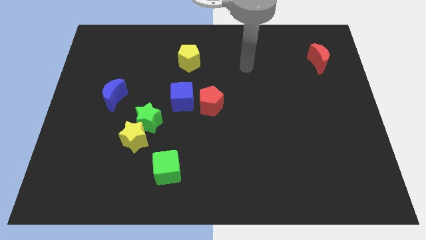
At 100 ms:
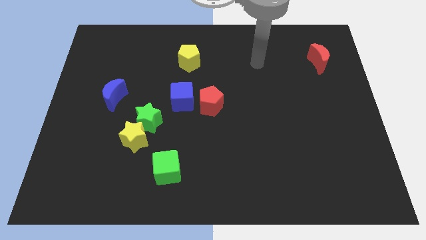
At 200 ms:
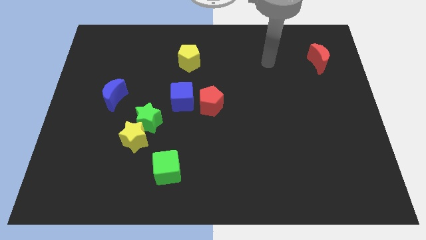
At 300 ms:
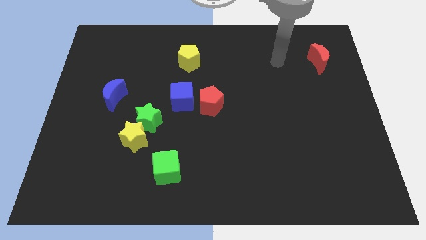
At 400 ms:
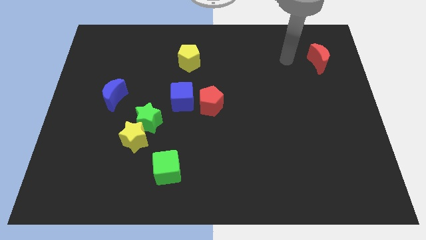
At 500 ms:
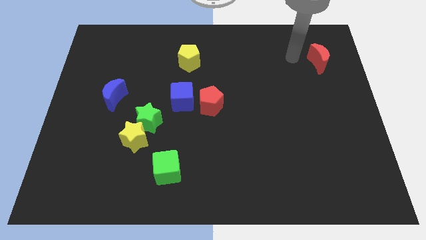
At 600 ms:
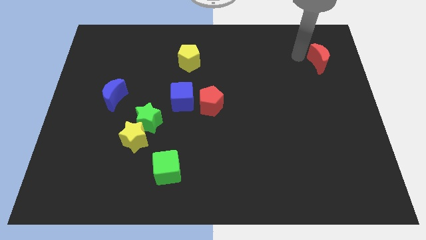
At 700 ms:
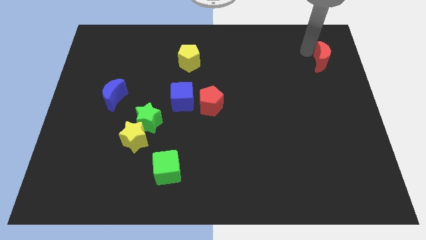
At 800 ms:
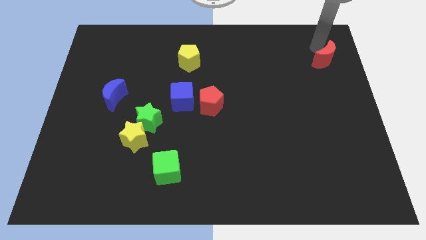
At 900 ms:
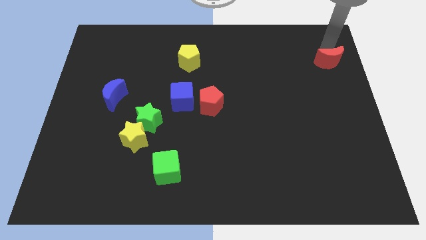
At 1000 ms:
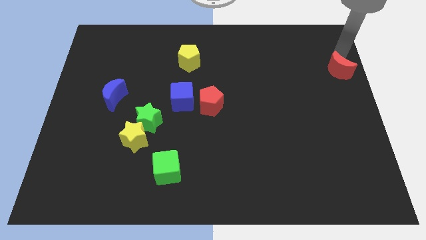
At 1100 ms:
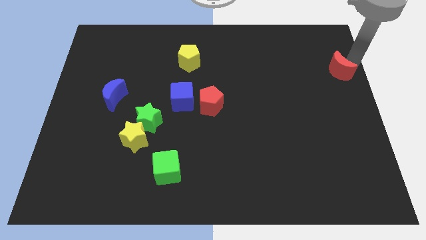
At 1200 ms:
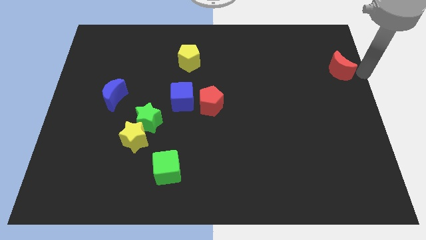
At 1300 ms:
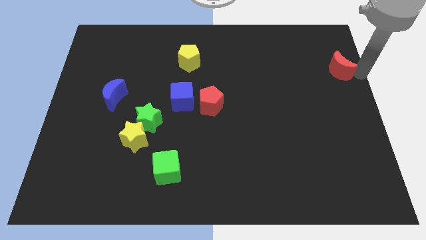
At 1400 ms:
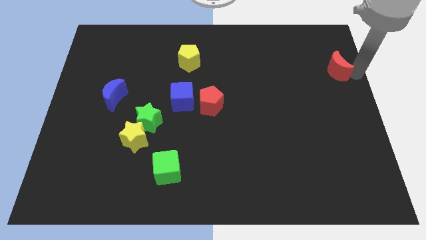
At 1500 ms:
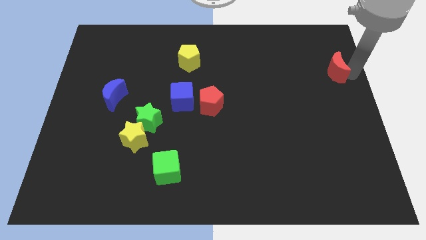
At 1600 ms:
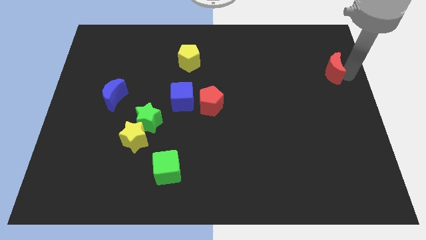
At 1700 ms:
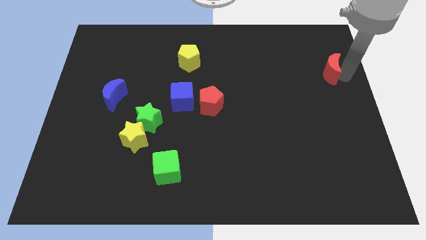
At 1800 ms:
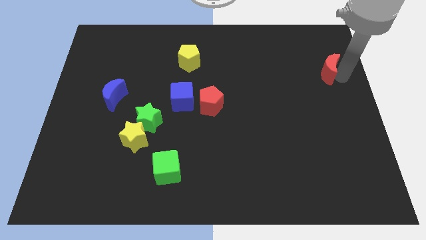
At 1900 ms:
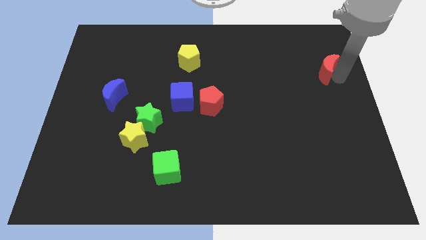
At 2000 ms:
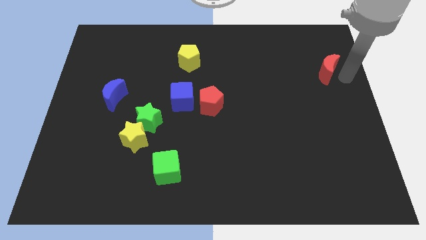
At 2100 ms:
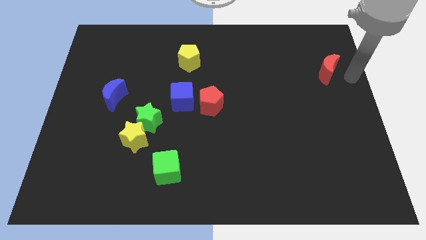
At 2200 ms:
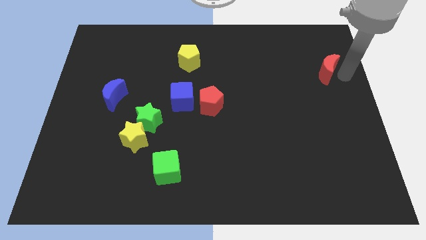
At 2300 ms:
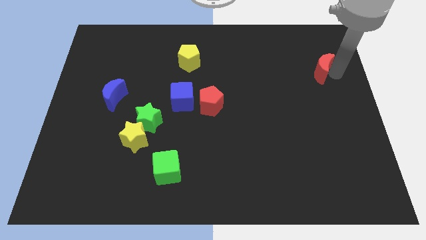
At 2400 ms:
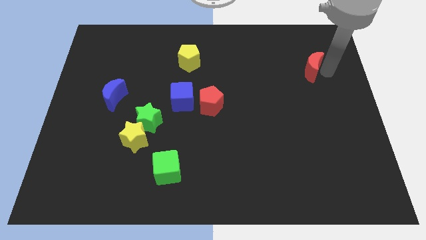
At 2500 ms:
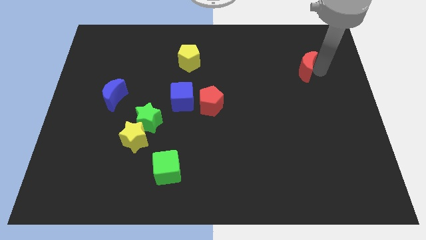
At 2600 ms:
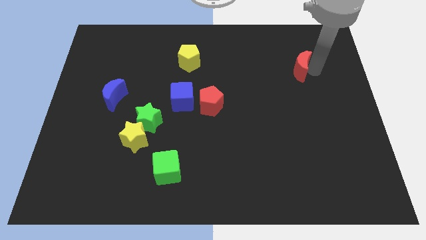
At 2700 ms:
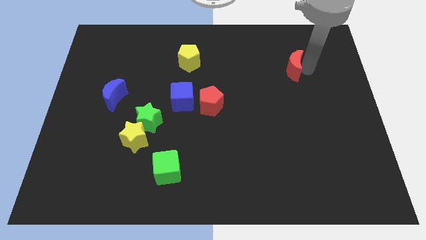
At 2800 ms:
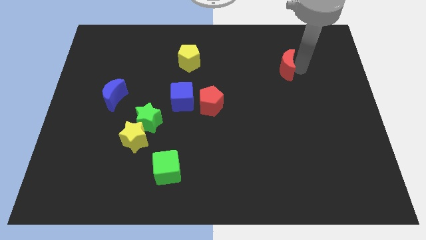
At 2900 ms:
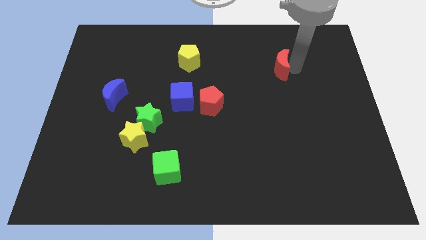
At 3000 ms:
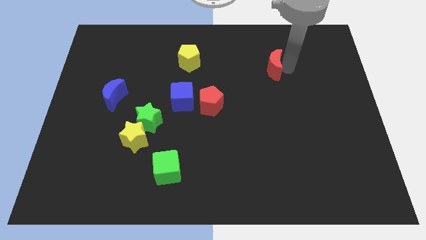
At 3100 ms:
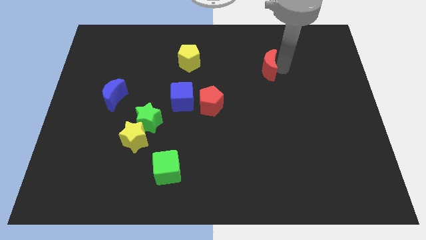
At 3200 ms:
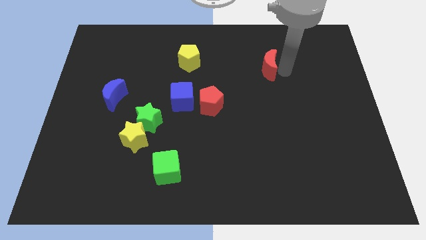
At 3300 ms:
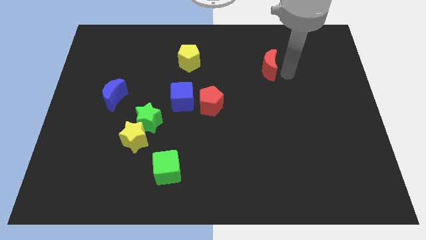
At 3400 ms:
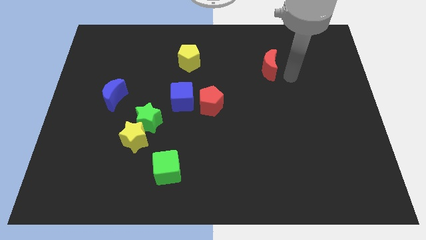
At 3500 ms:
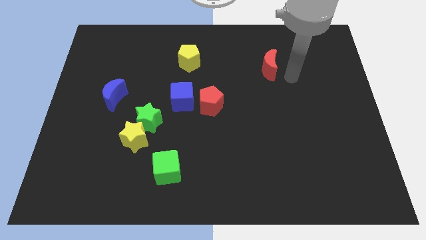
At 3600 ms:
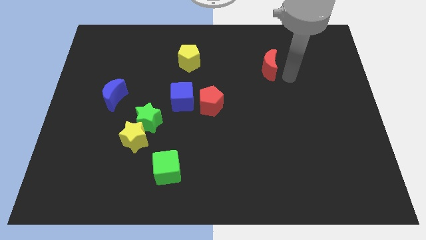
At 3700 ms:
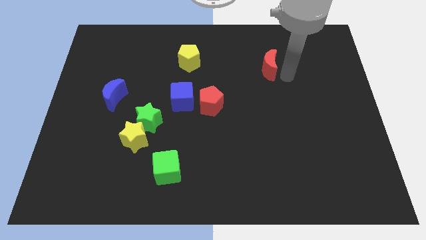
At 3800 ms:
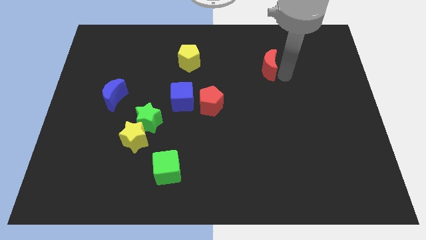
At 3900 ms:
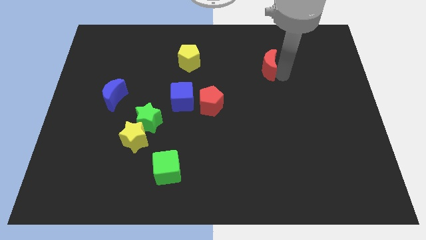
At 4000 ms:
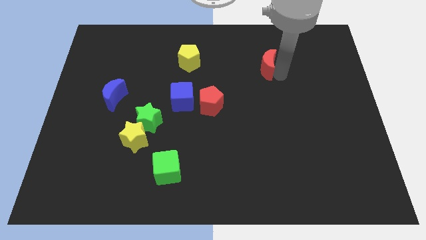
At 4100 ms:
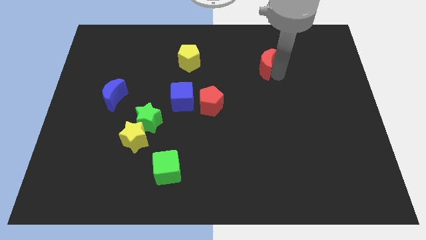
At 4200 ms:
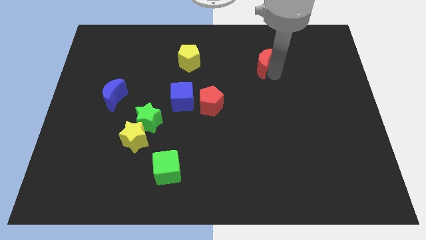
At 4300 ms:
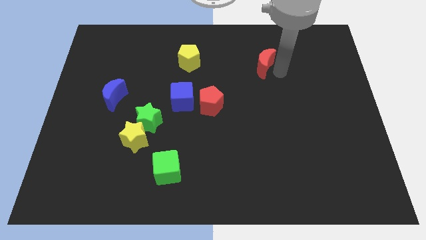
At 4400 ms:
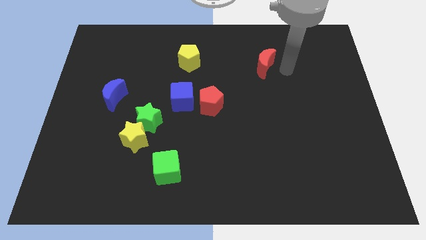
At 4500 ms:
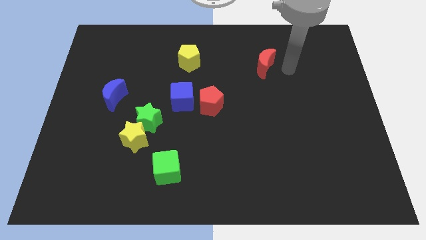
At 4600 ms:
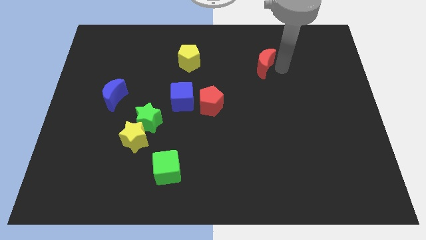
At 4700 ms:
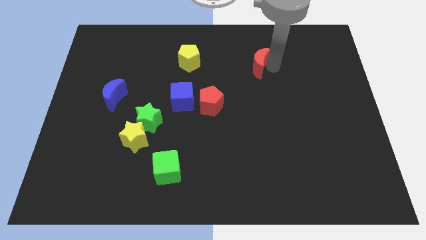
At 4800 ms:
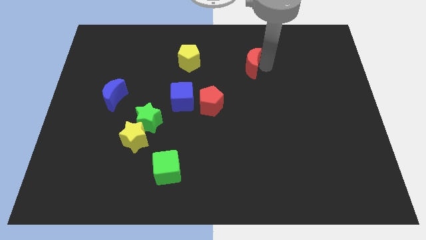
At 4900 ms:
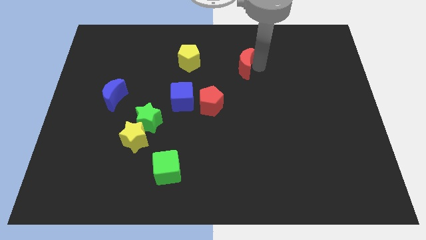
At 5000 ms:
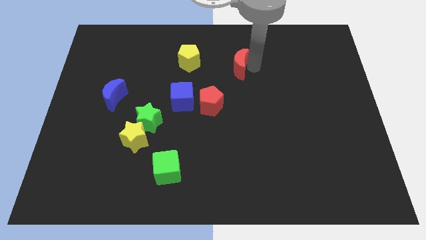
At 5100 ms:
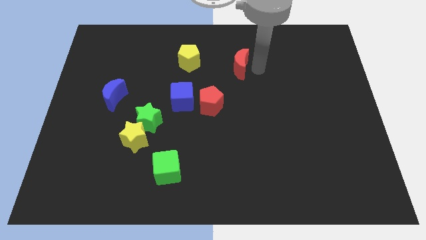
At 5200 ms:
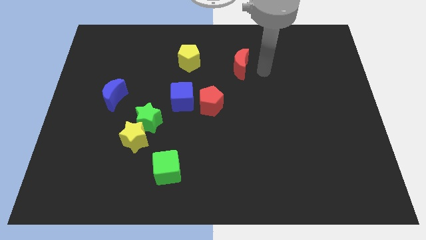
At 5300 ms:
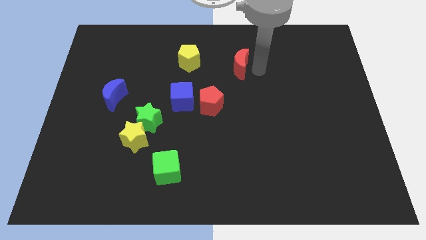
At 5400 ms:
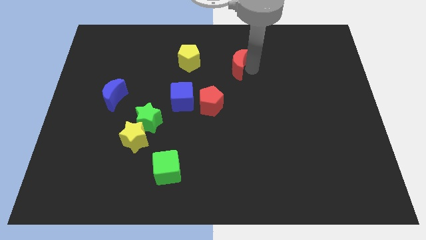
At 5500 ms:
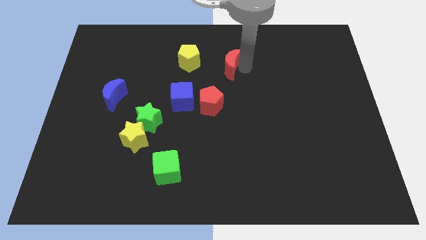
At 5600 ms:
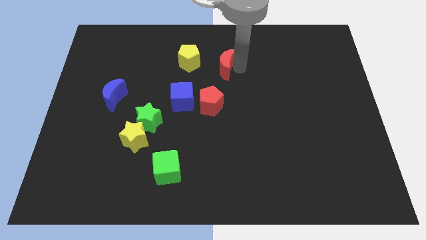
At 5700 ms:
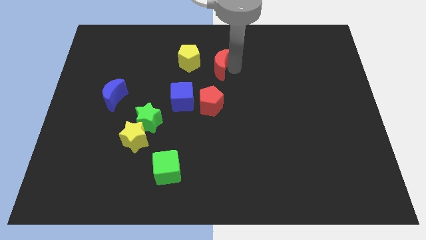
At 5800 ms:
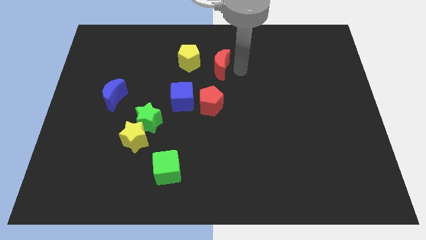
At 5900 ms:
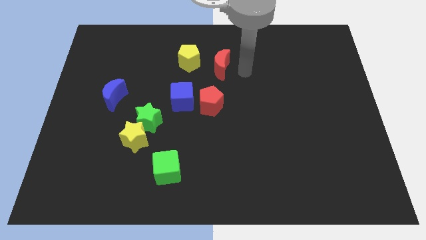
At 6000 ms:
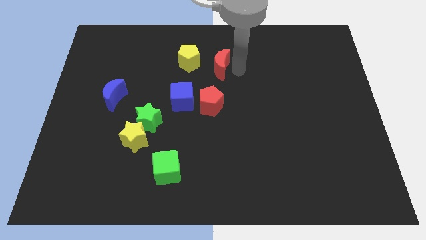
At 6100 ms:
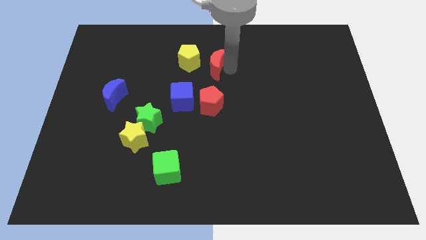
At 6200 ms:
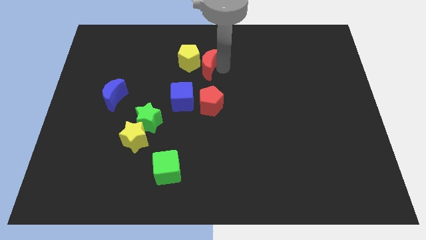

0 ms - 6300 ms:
put the red moon next to the yellow pentagon

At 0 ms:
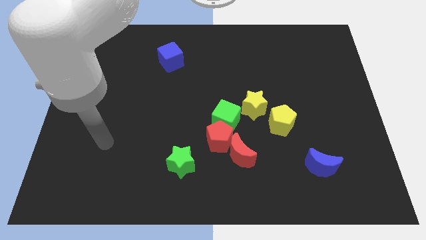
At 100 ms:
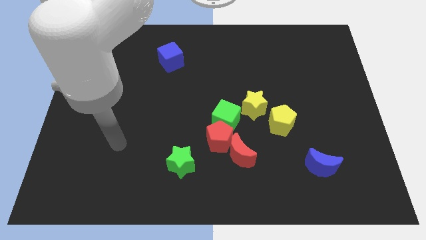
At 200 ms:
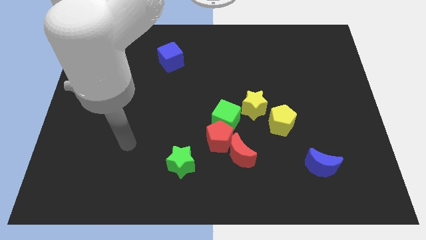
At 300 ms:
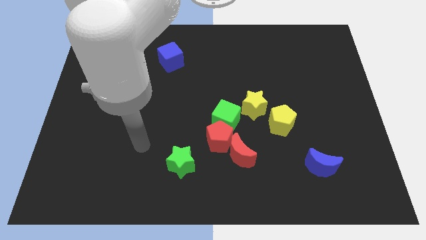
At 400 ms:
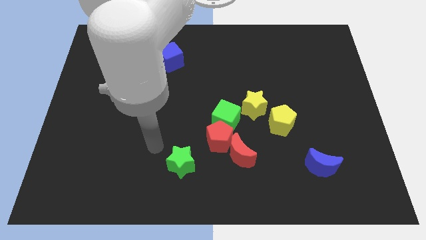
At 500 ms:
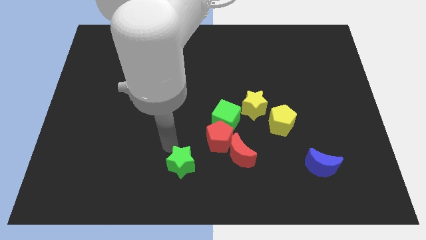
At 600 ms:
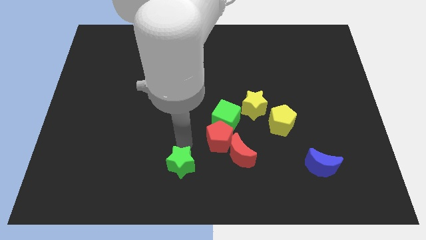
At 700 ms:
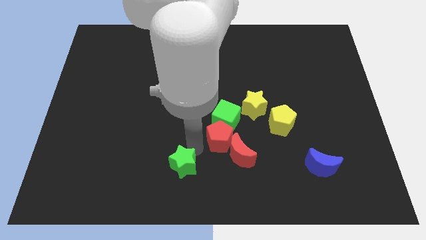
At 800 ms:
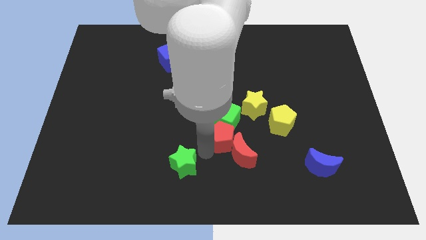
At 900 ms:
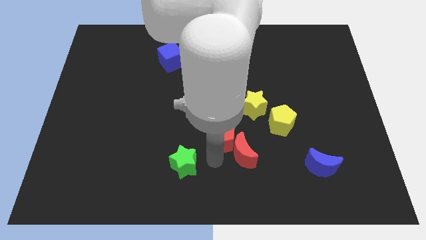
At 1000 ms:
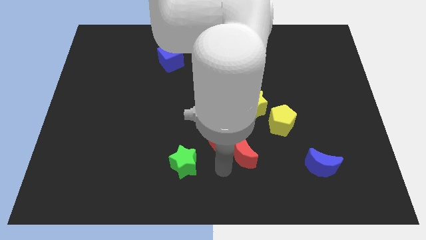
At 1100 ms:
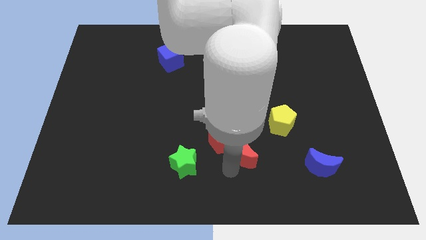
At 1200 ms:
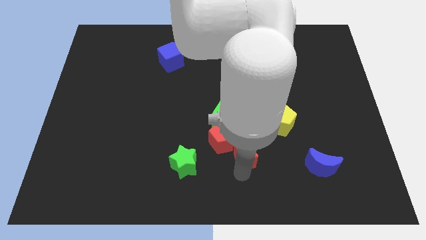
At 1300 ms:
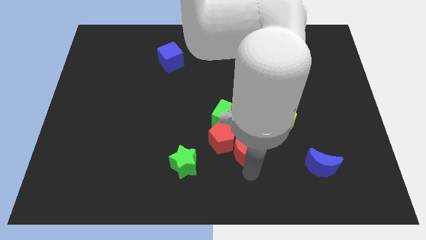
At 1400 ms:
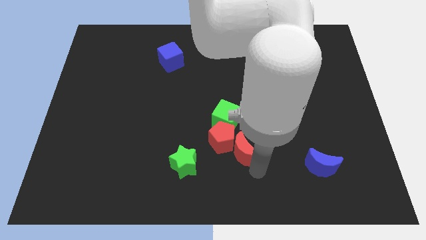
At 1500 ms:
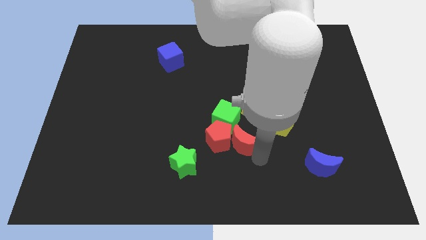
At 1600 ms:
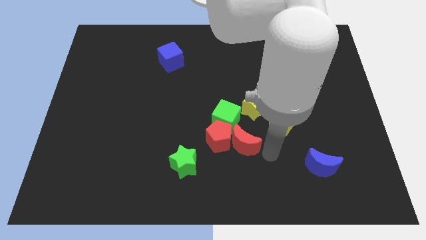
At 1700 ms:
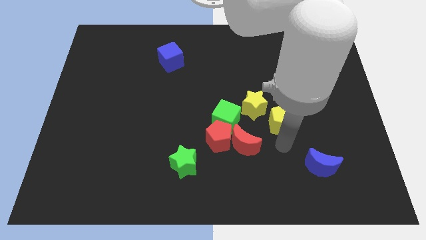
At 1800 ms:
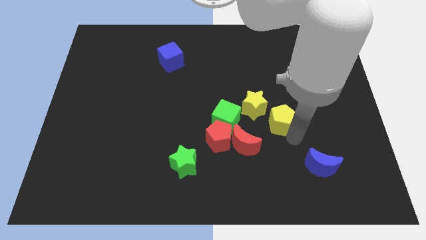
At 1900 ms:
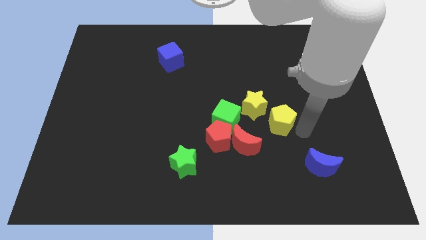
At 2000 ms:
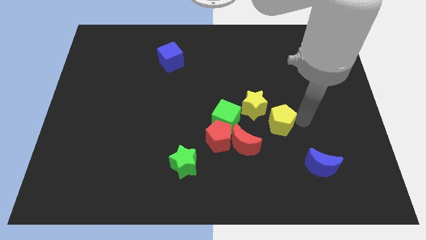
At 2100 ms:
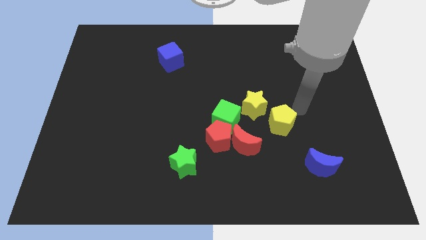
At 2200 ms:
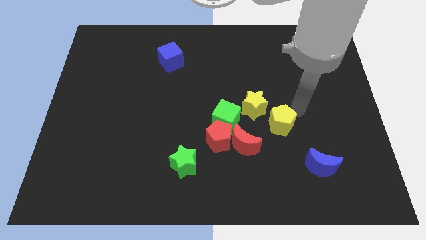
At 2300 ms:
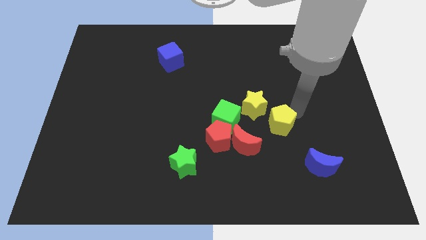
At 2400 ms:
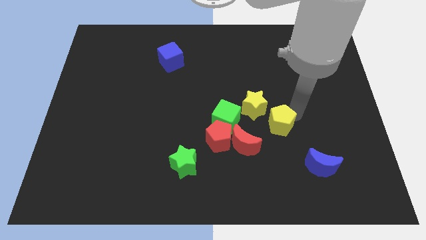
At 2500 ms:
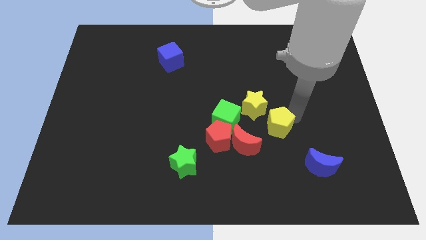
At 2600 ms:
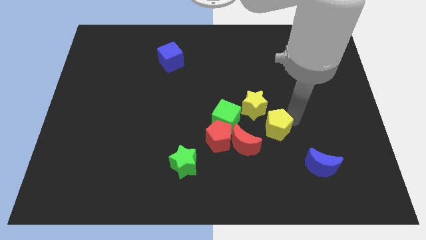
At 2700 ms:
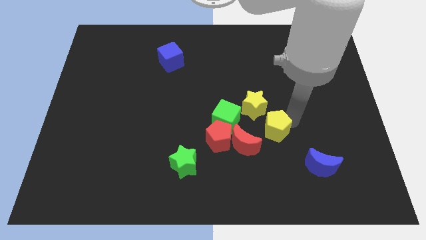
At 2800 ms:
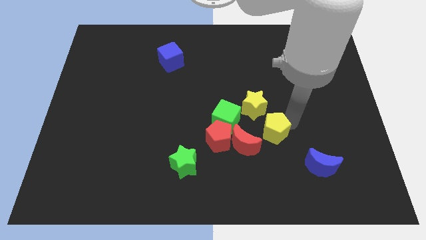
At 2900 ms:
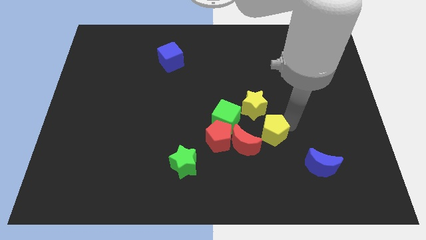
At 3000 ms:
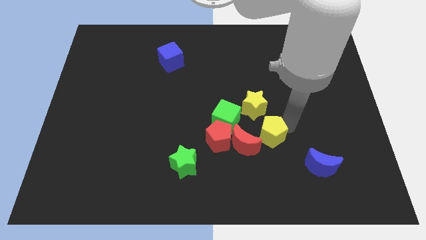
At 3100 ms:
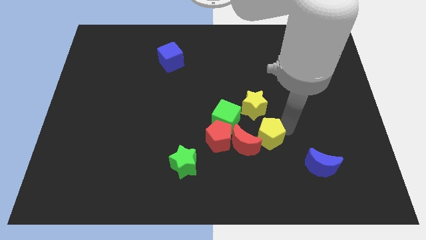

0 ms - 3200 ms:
move the yellow pentagon close to the red moon
